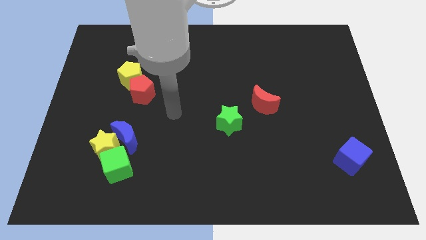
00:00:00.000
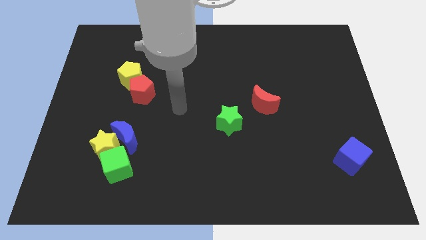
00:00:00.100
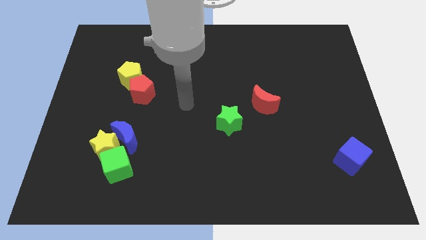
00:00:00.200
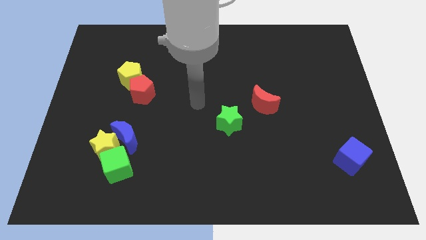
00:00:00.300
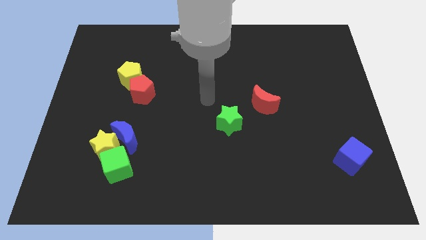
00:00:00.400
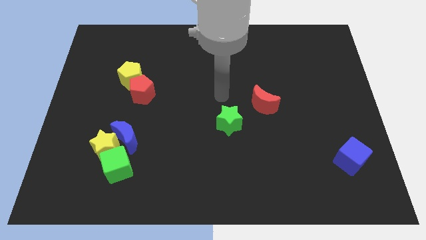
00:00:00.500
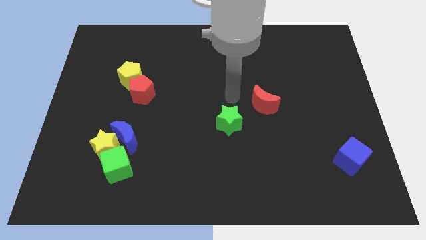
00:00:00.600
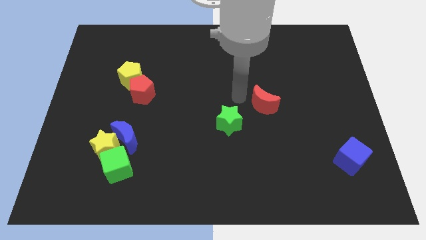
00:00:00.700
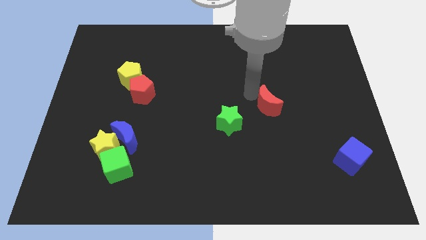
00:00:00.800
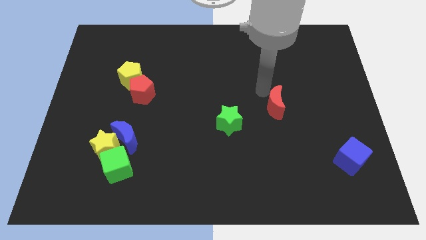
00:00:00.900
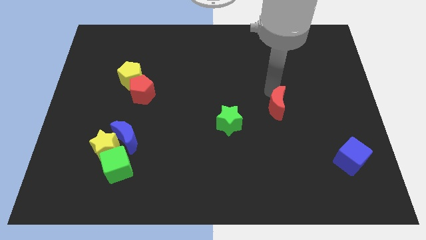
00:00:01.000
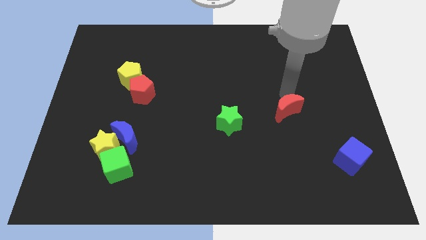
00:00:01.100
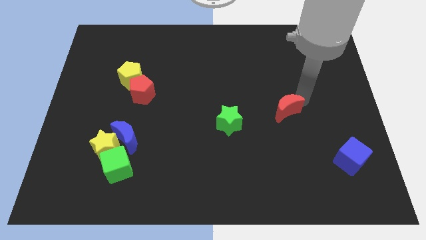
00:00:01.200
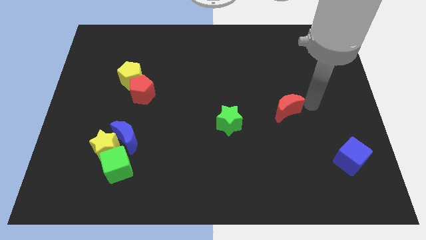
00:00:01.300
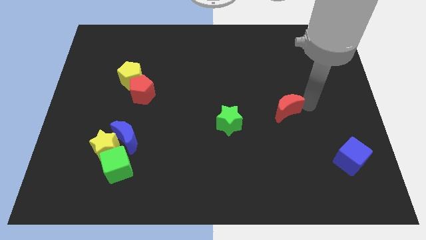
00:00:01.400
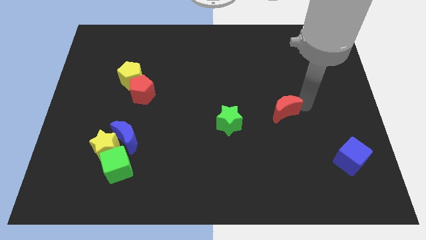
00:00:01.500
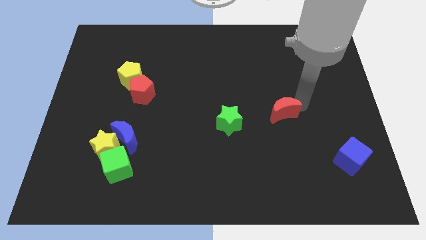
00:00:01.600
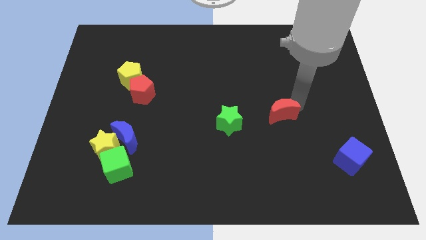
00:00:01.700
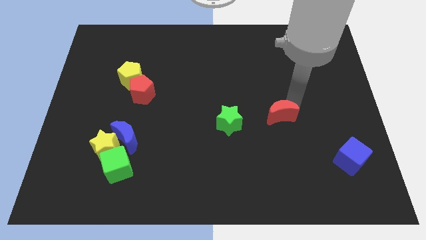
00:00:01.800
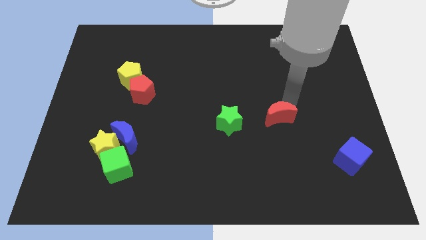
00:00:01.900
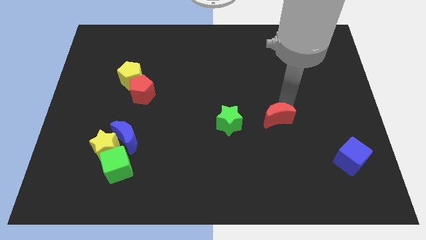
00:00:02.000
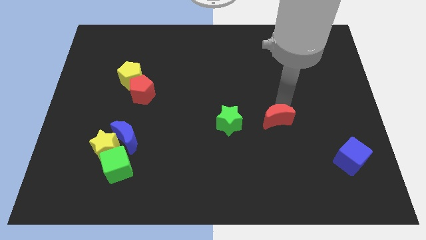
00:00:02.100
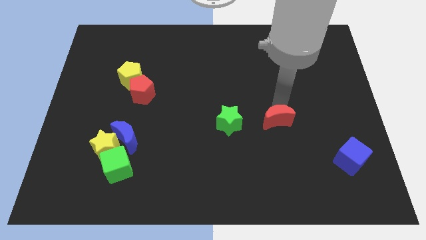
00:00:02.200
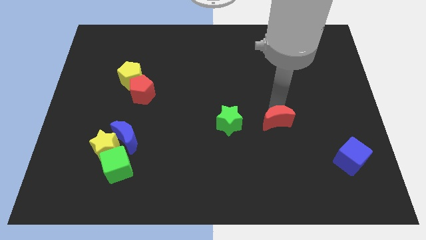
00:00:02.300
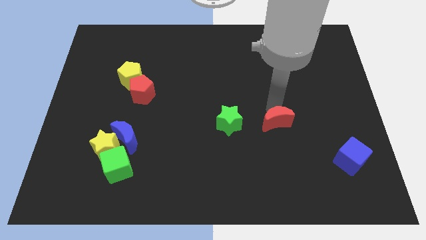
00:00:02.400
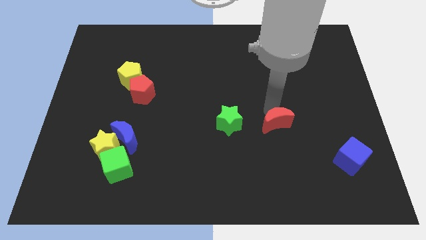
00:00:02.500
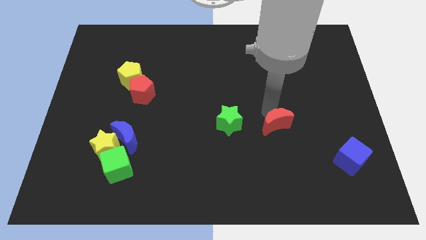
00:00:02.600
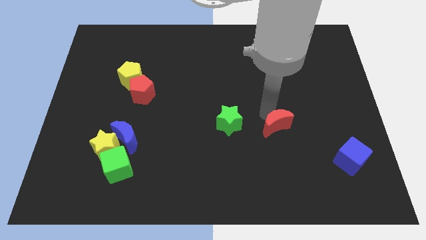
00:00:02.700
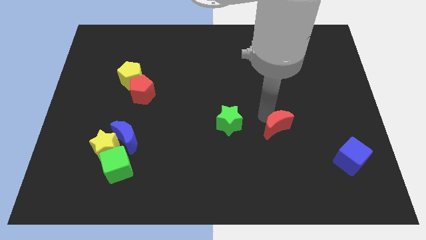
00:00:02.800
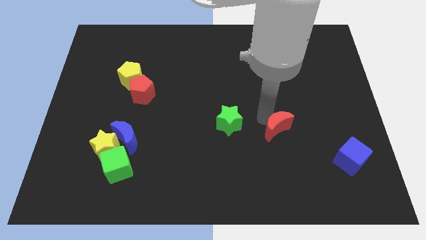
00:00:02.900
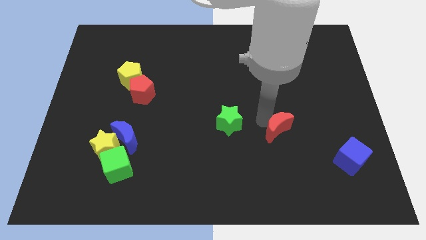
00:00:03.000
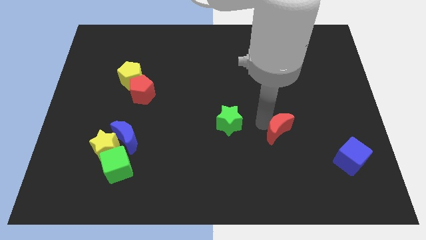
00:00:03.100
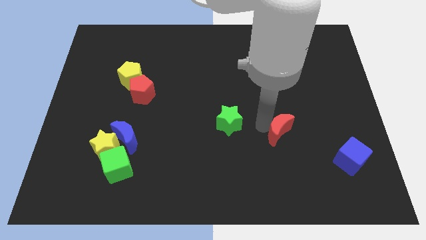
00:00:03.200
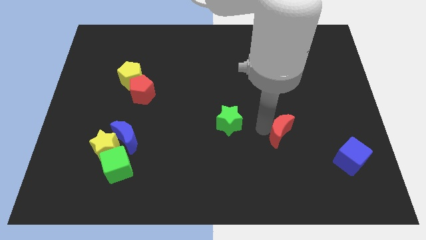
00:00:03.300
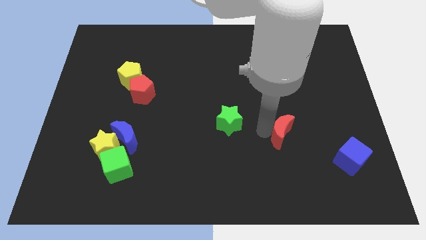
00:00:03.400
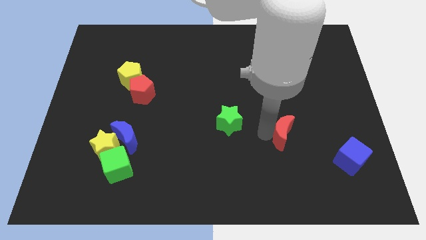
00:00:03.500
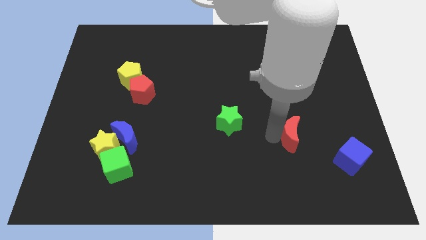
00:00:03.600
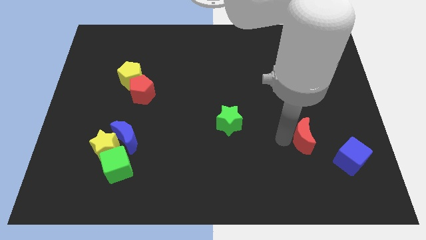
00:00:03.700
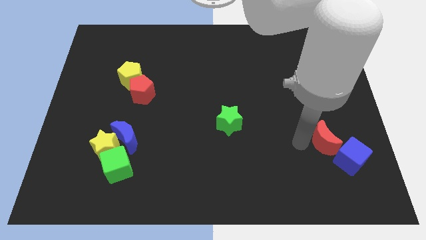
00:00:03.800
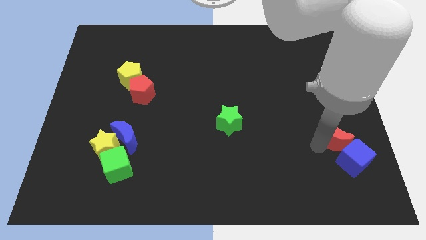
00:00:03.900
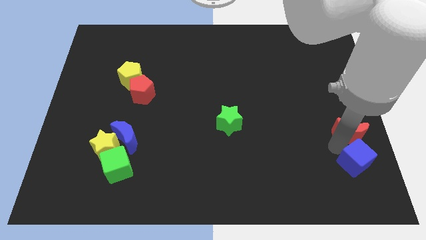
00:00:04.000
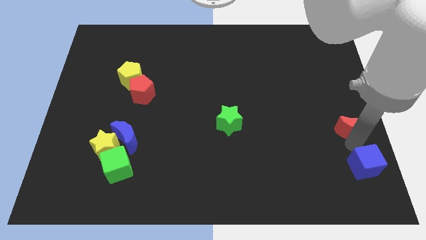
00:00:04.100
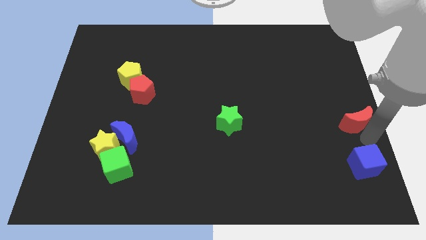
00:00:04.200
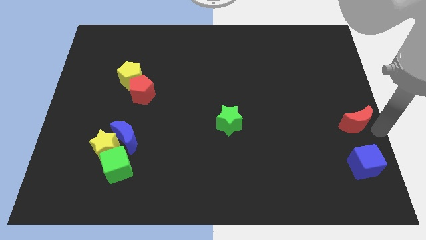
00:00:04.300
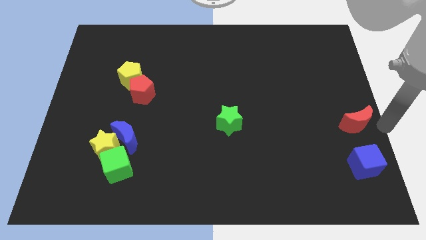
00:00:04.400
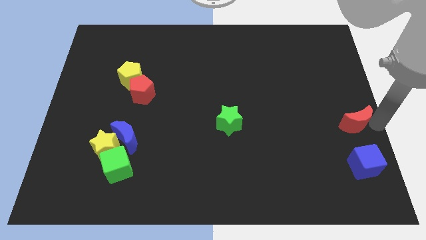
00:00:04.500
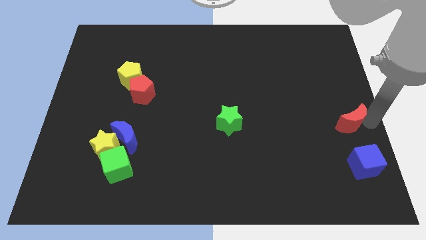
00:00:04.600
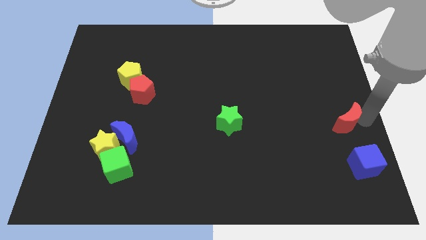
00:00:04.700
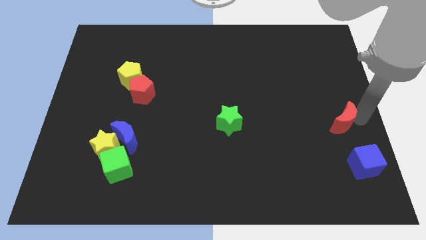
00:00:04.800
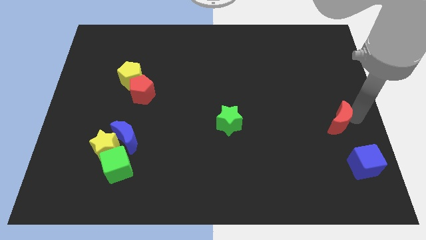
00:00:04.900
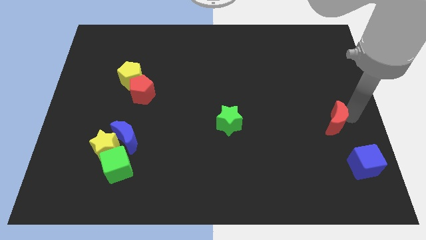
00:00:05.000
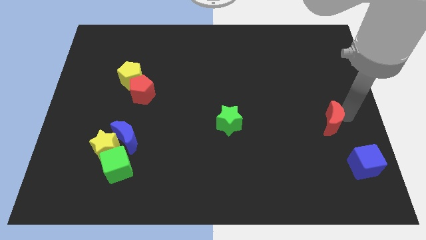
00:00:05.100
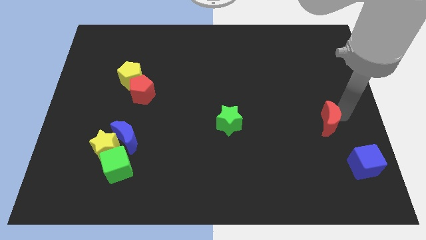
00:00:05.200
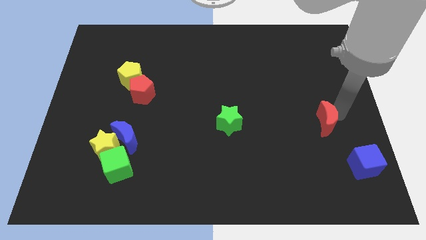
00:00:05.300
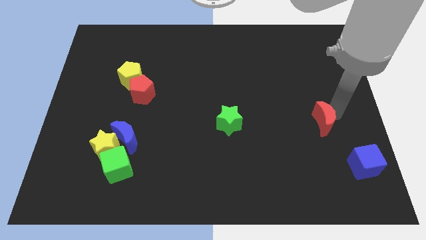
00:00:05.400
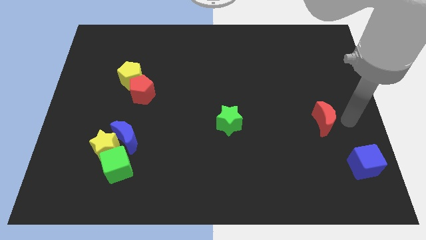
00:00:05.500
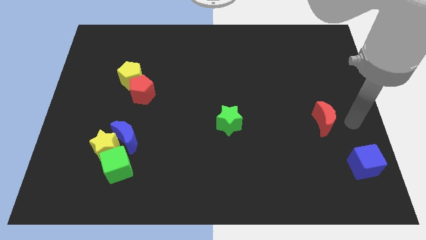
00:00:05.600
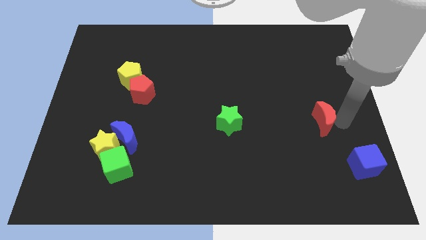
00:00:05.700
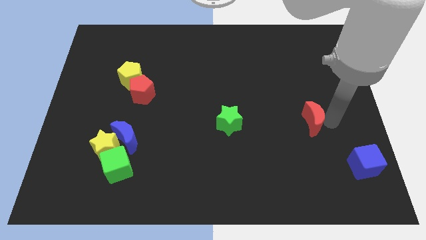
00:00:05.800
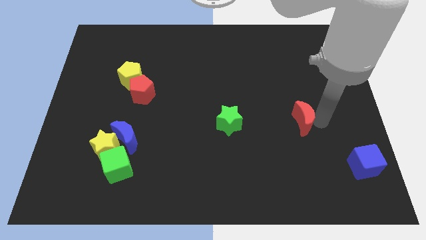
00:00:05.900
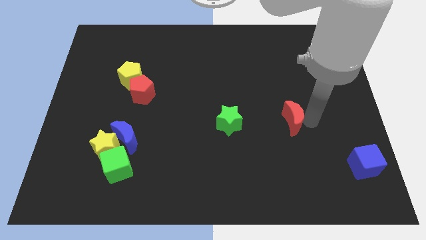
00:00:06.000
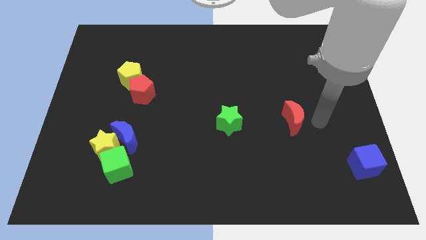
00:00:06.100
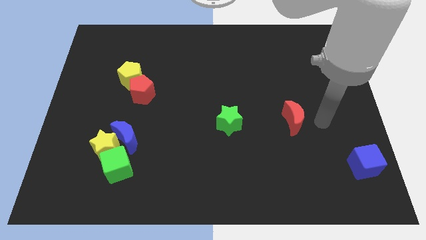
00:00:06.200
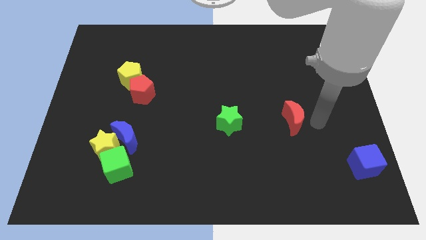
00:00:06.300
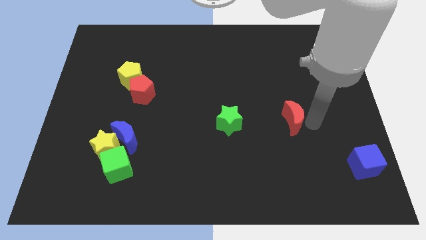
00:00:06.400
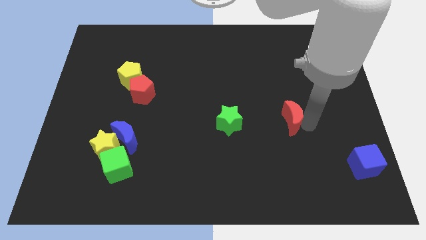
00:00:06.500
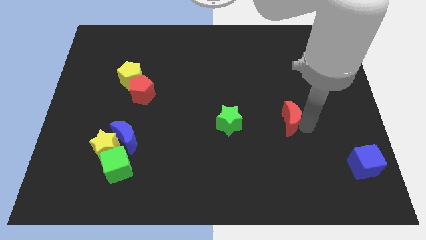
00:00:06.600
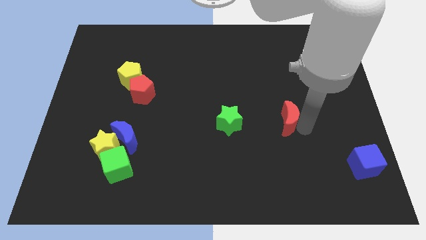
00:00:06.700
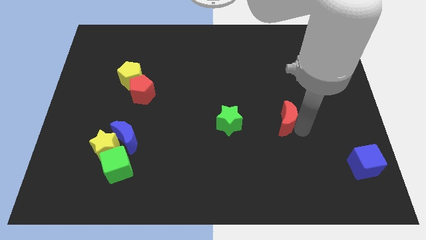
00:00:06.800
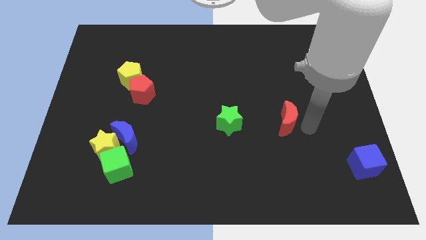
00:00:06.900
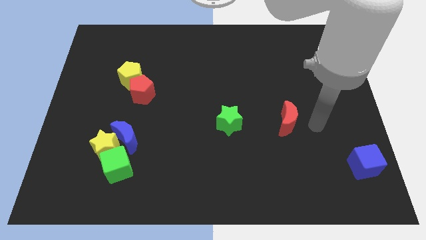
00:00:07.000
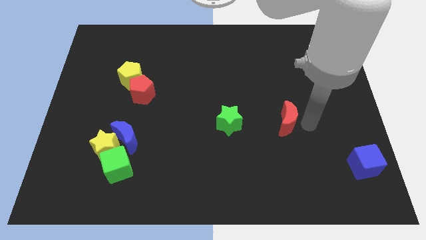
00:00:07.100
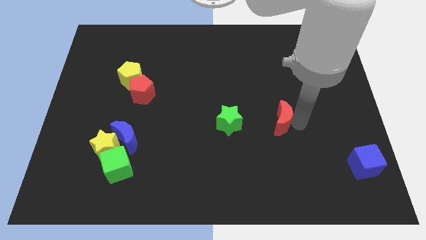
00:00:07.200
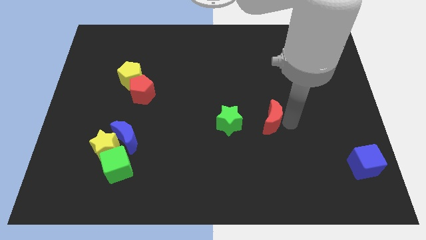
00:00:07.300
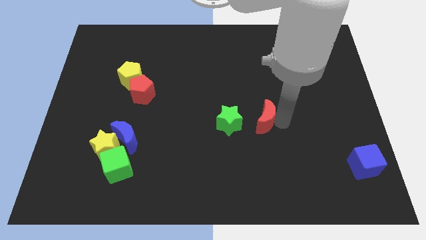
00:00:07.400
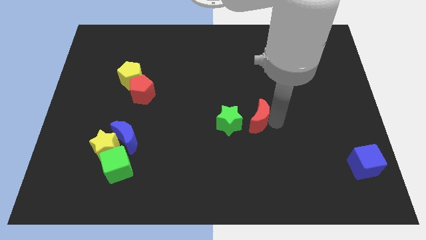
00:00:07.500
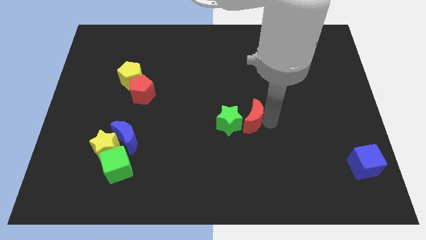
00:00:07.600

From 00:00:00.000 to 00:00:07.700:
move the red moon close to the green star
